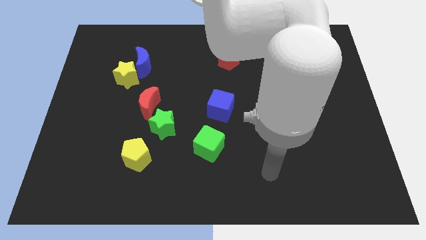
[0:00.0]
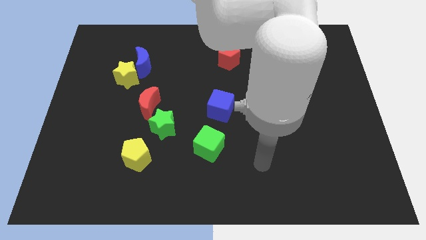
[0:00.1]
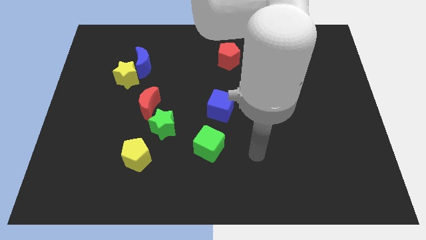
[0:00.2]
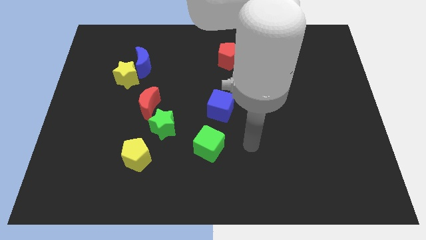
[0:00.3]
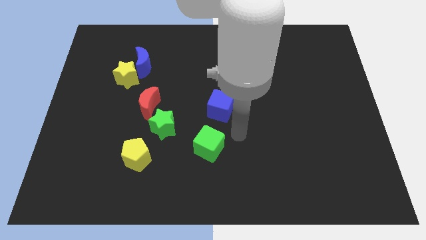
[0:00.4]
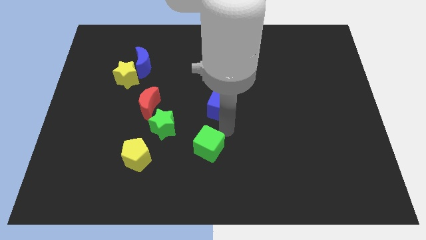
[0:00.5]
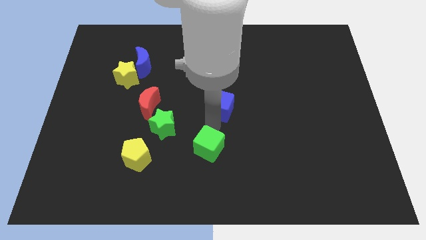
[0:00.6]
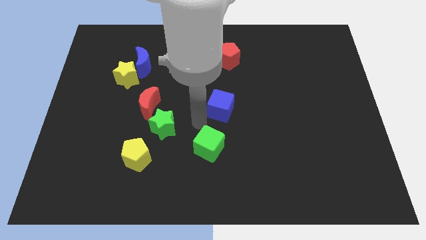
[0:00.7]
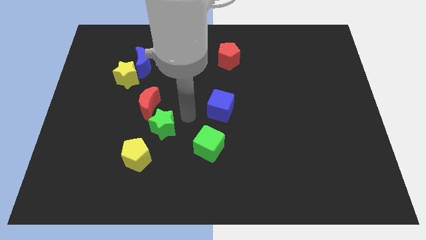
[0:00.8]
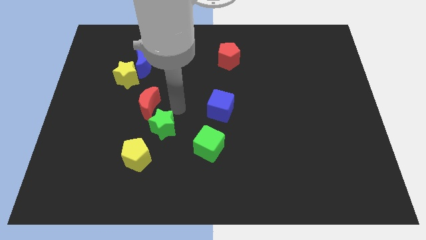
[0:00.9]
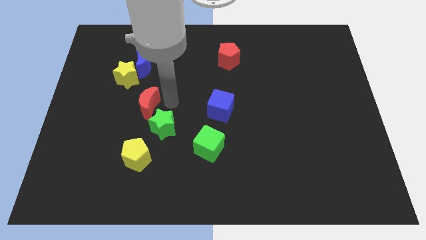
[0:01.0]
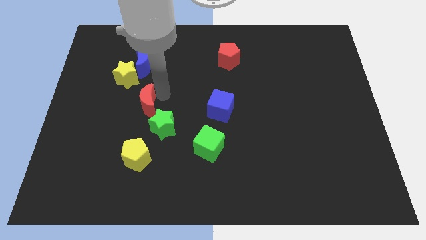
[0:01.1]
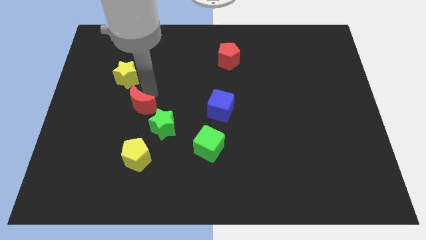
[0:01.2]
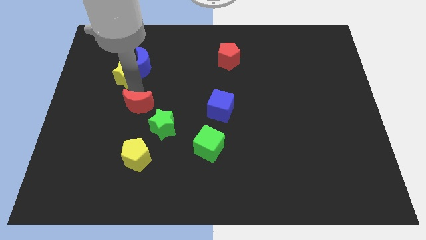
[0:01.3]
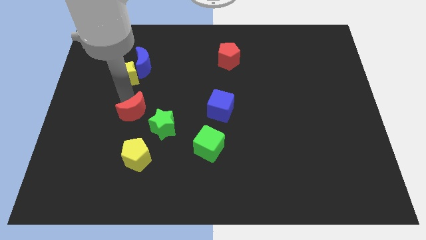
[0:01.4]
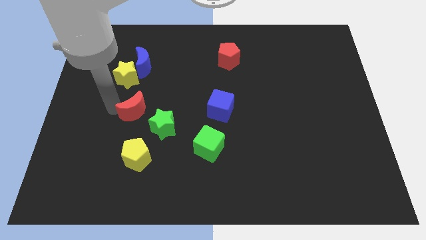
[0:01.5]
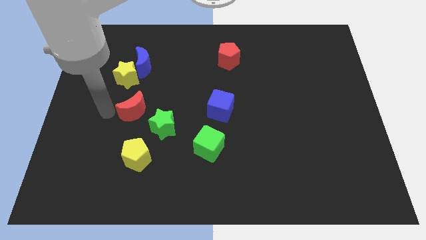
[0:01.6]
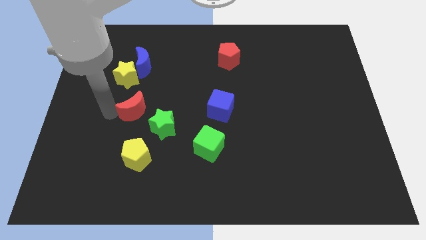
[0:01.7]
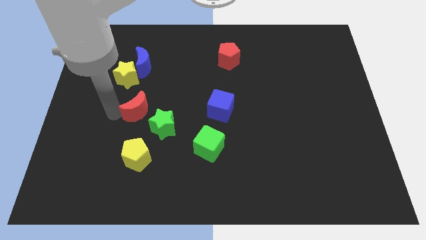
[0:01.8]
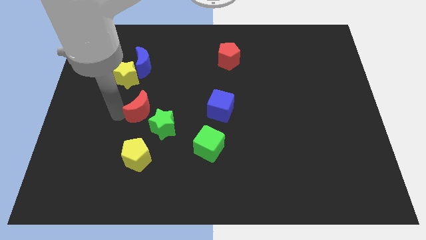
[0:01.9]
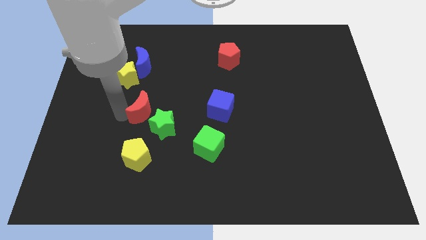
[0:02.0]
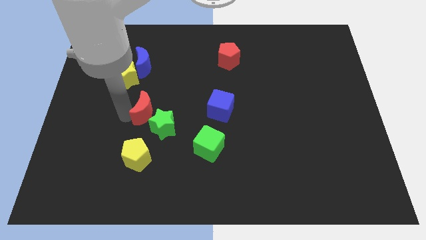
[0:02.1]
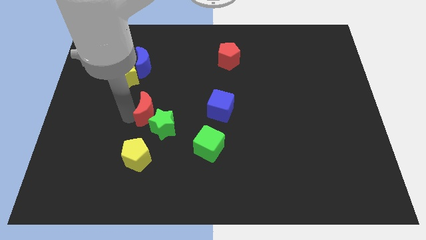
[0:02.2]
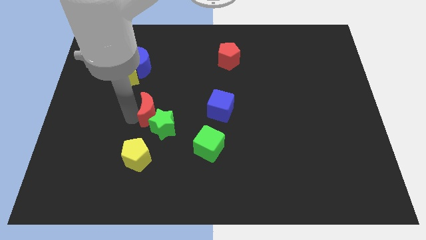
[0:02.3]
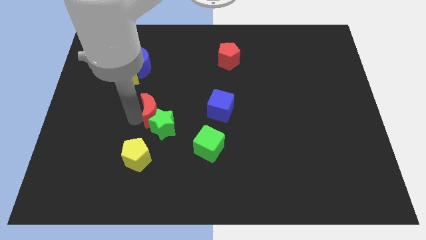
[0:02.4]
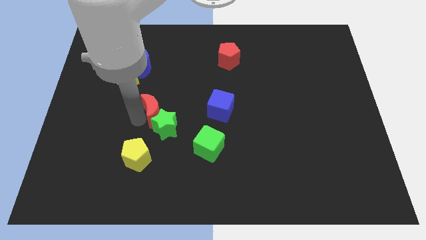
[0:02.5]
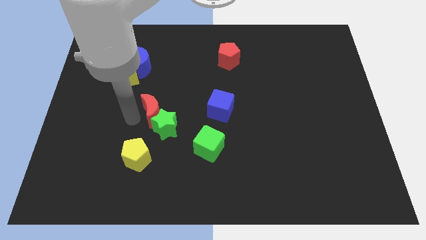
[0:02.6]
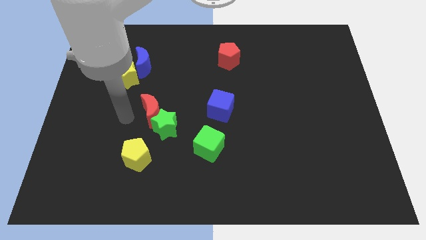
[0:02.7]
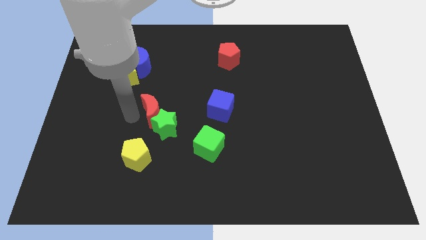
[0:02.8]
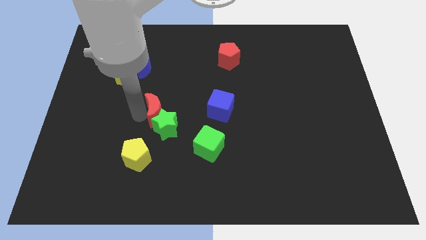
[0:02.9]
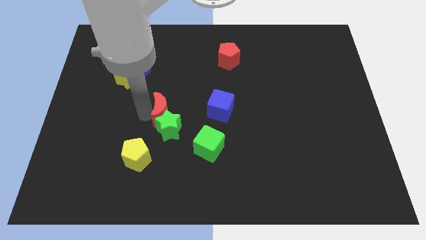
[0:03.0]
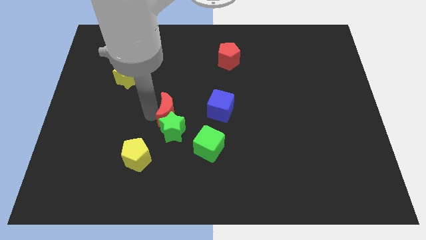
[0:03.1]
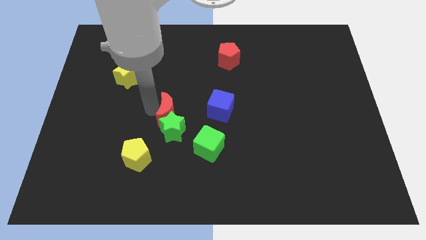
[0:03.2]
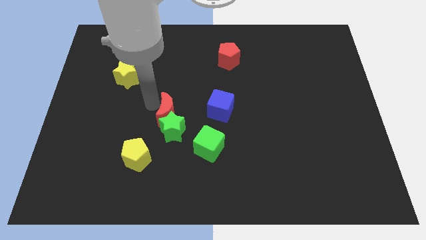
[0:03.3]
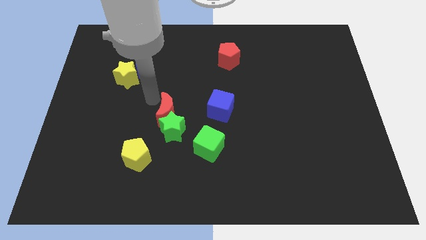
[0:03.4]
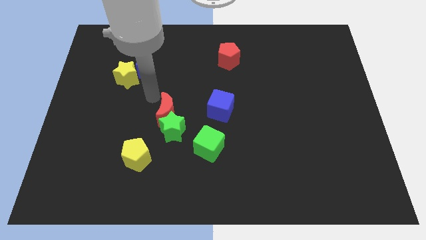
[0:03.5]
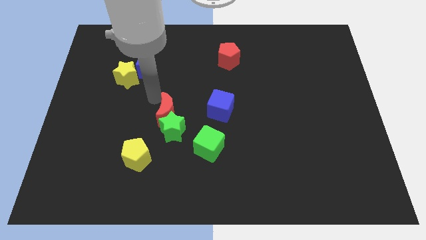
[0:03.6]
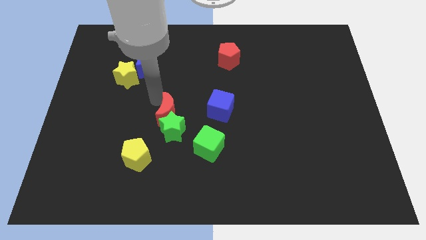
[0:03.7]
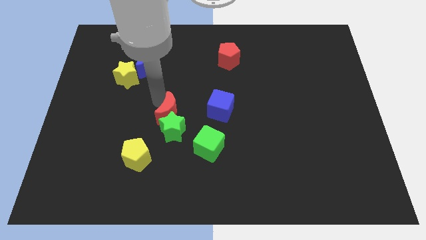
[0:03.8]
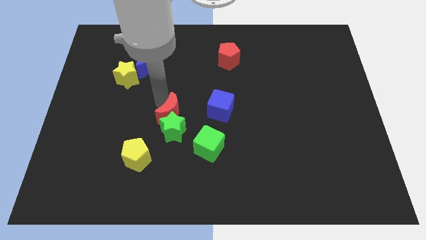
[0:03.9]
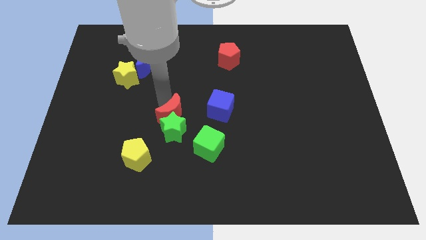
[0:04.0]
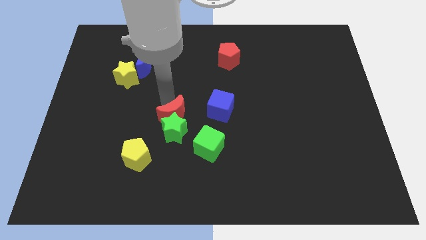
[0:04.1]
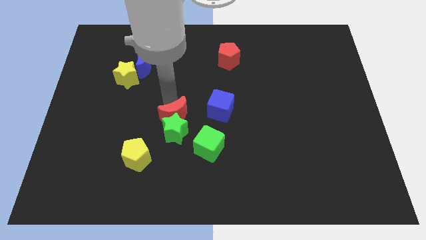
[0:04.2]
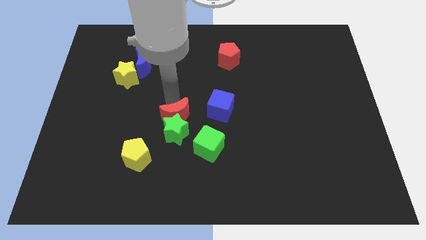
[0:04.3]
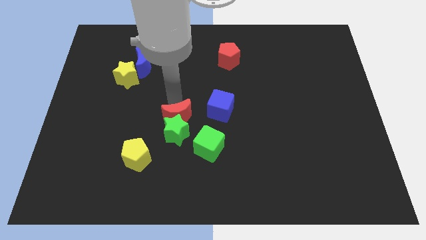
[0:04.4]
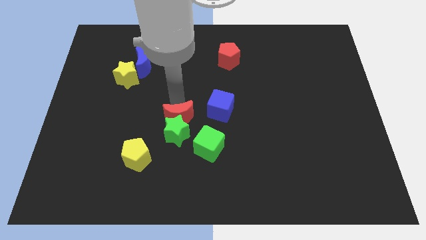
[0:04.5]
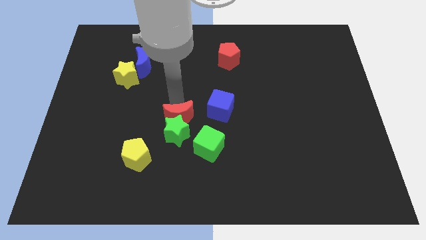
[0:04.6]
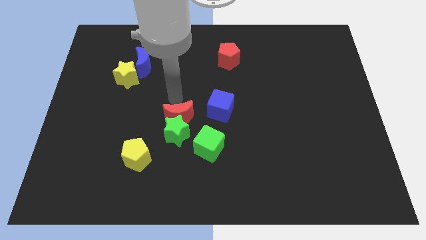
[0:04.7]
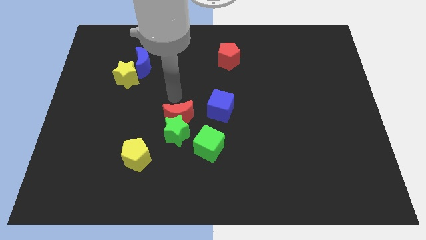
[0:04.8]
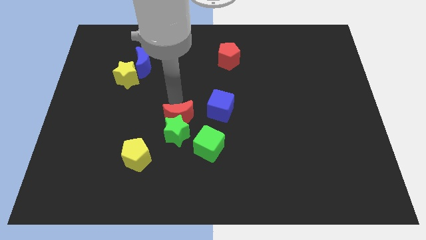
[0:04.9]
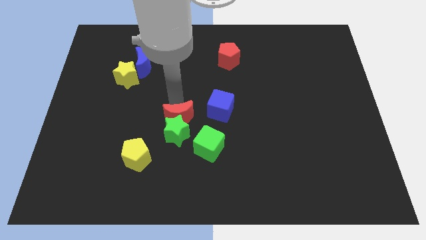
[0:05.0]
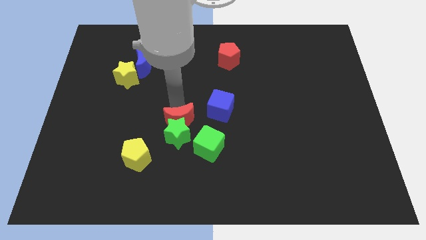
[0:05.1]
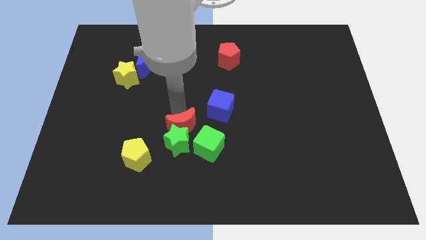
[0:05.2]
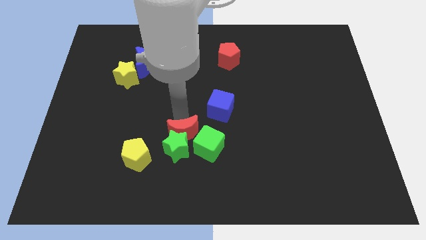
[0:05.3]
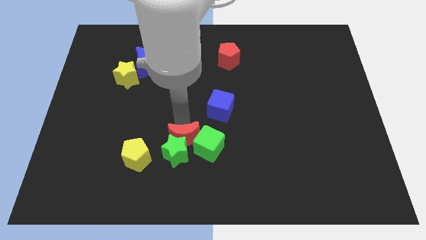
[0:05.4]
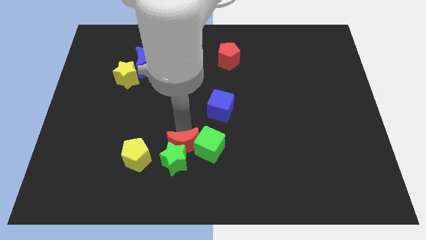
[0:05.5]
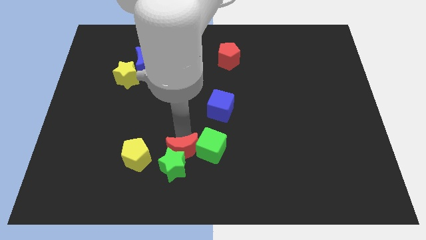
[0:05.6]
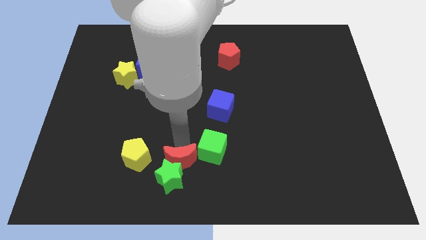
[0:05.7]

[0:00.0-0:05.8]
move the red moon to the bottom side

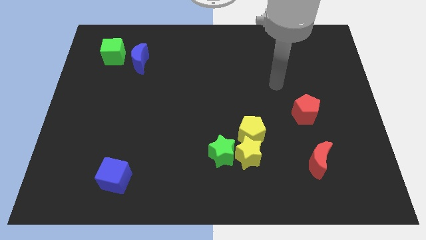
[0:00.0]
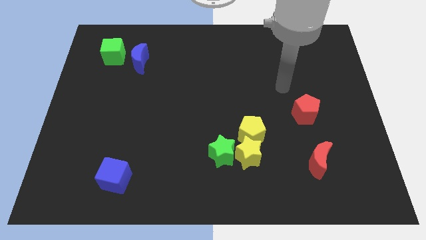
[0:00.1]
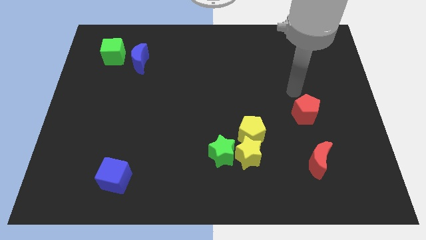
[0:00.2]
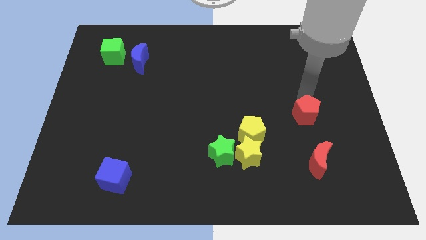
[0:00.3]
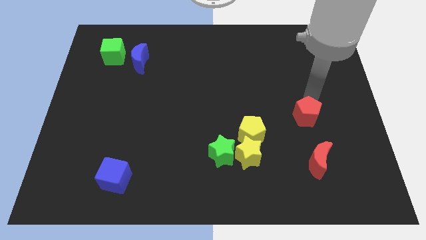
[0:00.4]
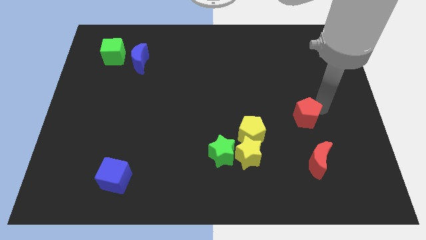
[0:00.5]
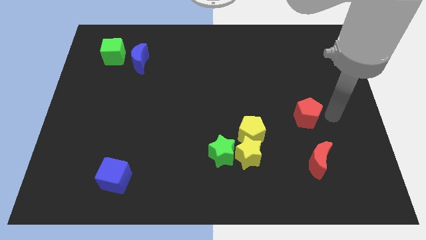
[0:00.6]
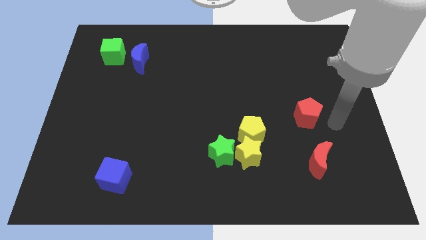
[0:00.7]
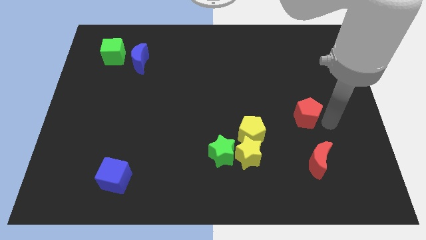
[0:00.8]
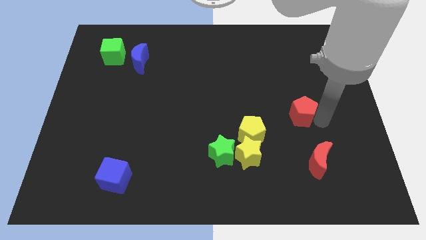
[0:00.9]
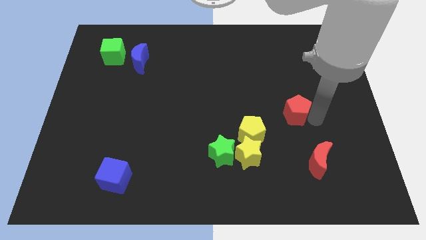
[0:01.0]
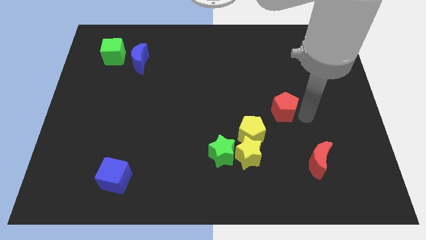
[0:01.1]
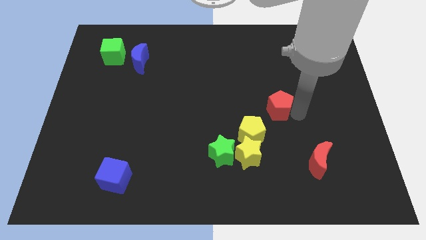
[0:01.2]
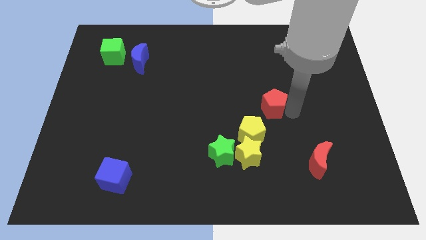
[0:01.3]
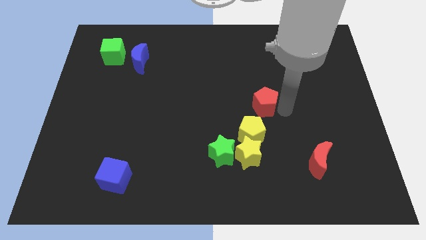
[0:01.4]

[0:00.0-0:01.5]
push the red pentagon to the center of the board
